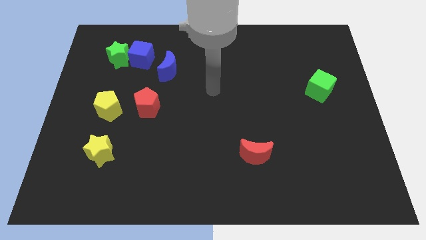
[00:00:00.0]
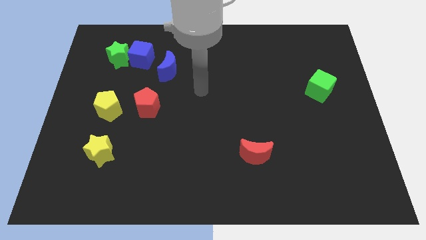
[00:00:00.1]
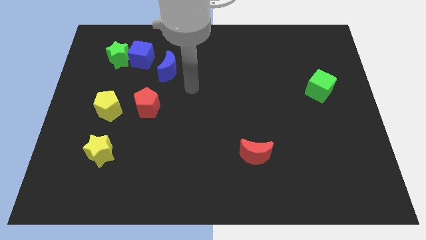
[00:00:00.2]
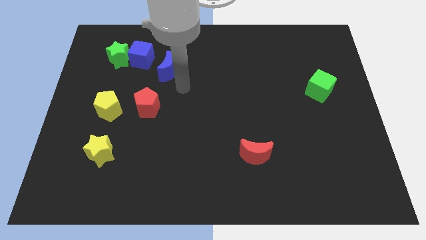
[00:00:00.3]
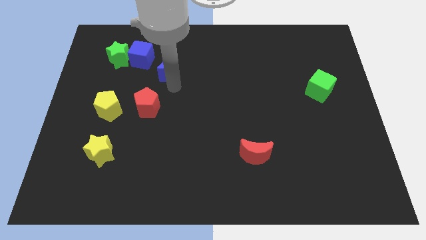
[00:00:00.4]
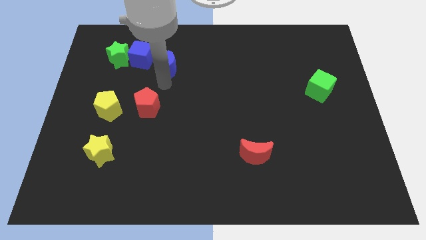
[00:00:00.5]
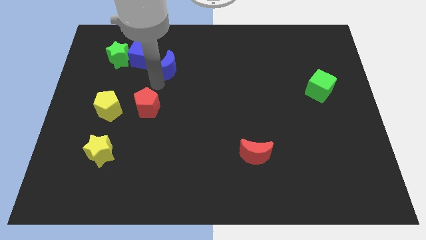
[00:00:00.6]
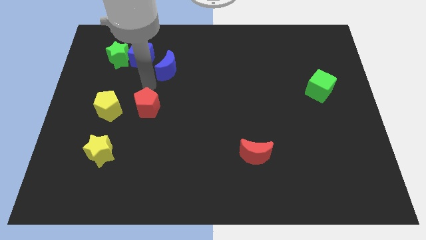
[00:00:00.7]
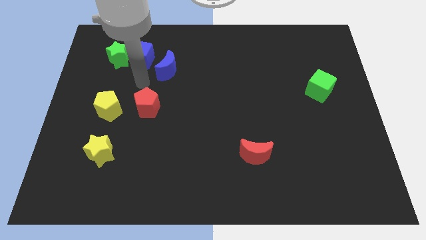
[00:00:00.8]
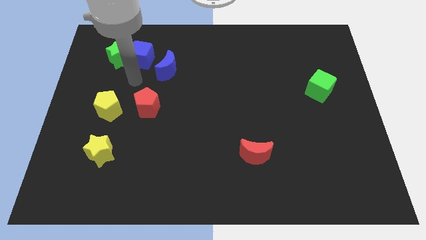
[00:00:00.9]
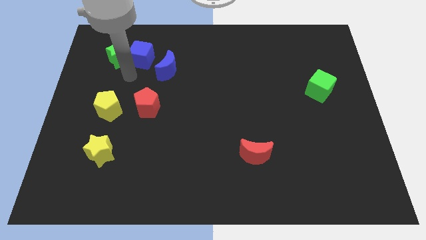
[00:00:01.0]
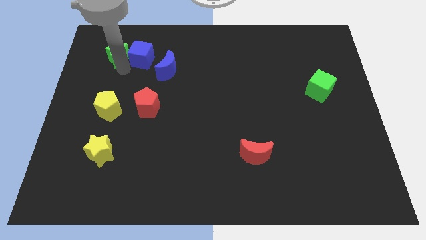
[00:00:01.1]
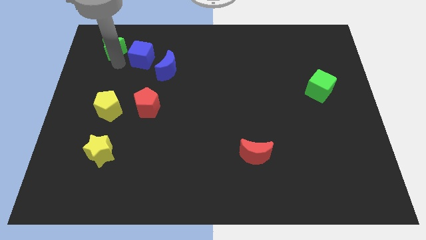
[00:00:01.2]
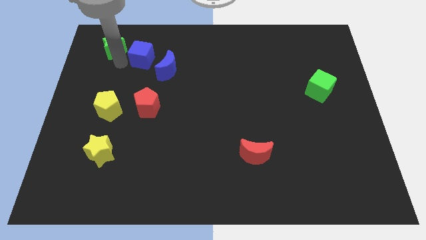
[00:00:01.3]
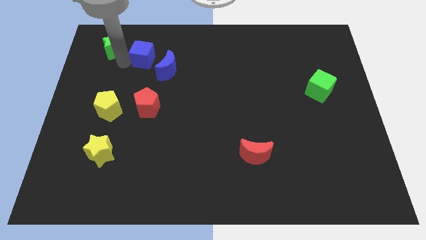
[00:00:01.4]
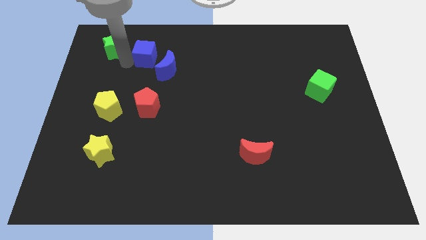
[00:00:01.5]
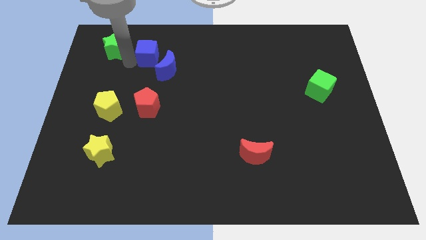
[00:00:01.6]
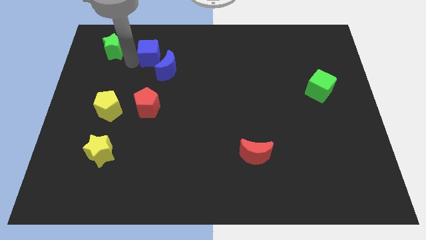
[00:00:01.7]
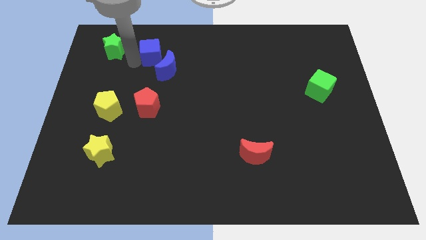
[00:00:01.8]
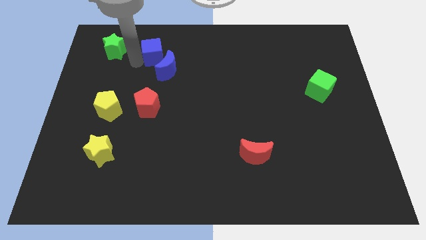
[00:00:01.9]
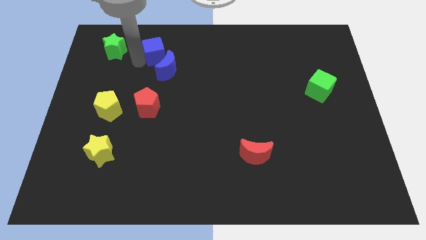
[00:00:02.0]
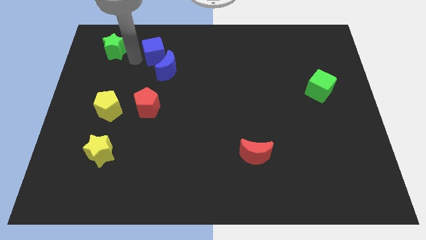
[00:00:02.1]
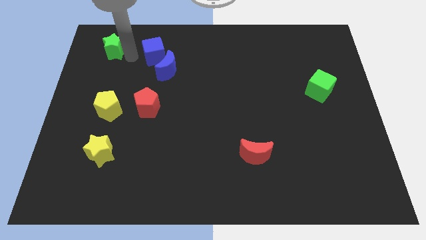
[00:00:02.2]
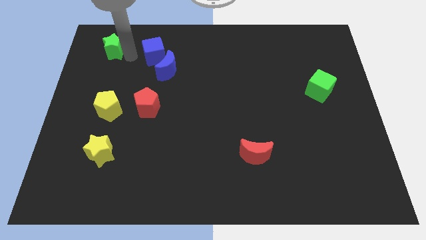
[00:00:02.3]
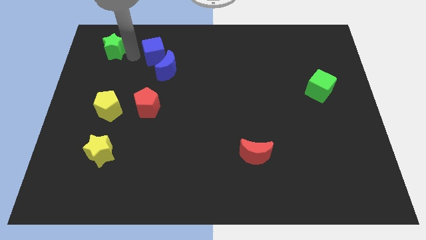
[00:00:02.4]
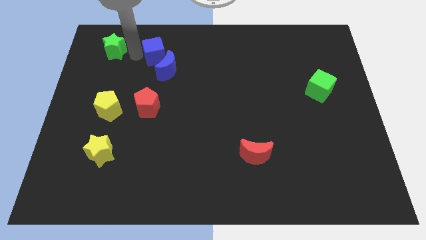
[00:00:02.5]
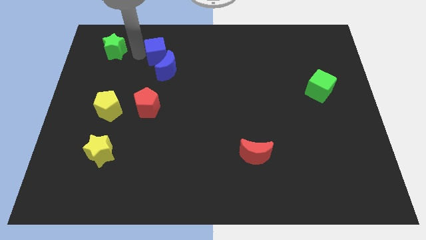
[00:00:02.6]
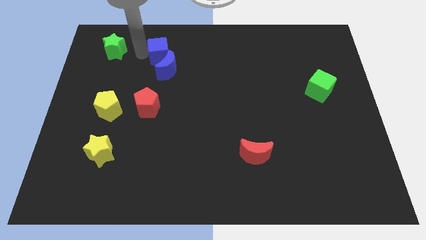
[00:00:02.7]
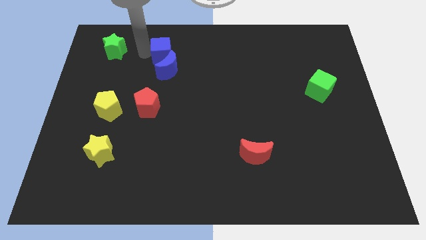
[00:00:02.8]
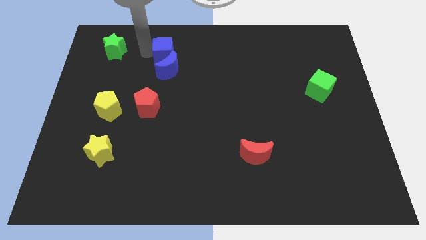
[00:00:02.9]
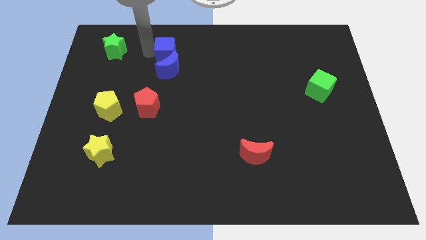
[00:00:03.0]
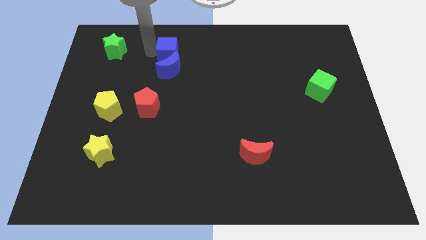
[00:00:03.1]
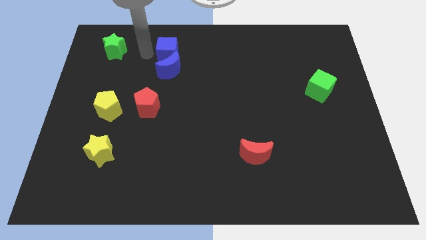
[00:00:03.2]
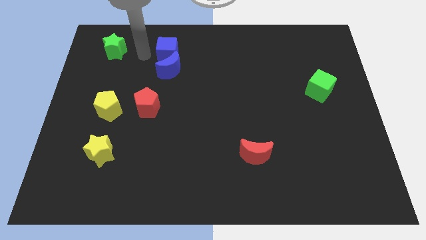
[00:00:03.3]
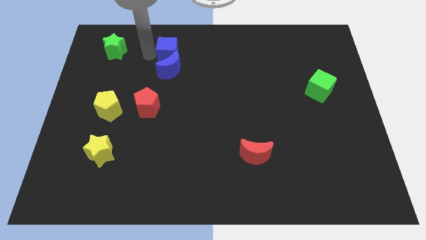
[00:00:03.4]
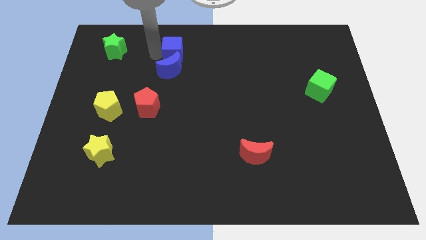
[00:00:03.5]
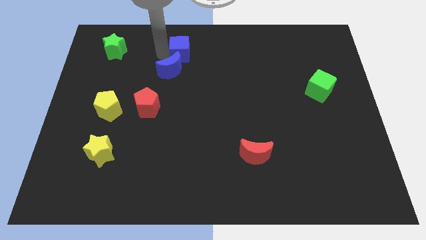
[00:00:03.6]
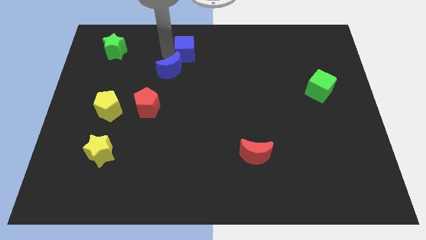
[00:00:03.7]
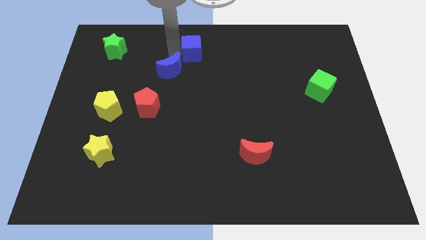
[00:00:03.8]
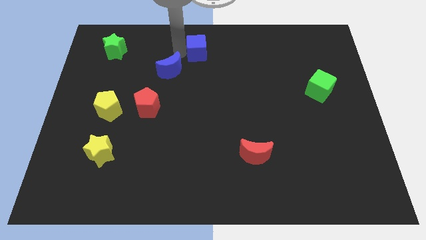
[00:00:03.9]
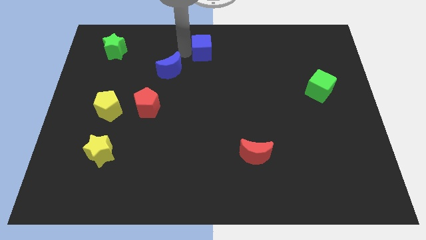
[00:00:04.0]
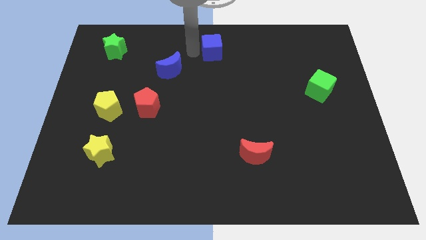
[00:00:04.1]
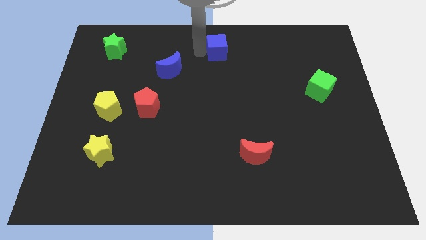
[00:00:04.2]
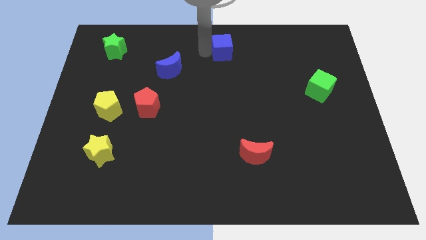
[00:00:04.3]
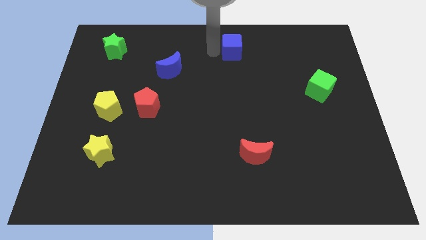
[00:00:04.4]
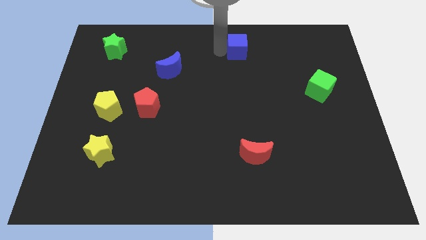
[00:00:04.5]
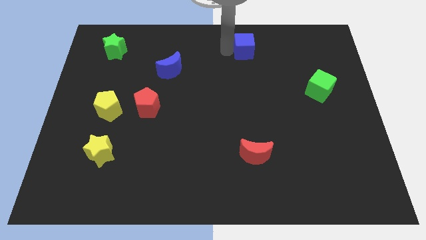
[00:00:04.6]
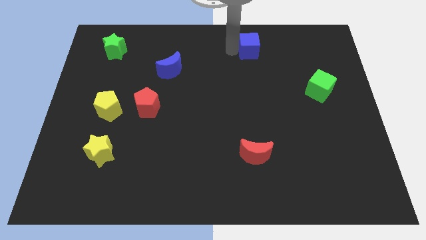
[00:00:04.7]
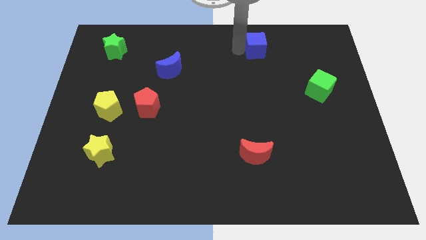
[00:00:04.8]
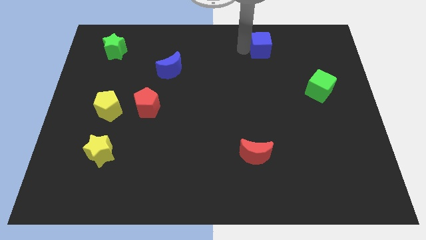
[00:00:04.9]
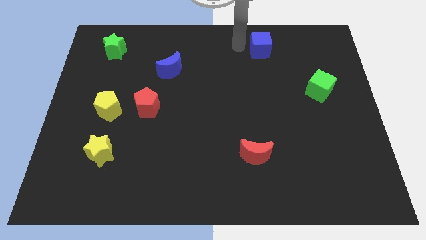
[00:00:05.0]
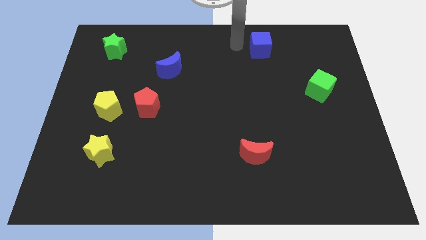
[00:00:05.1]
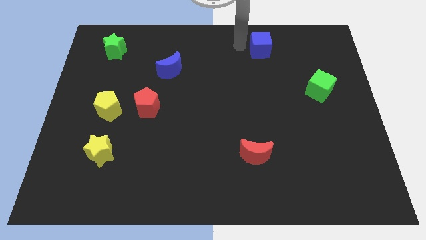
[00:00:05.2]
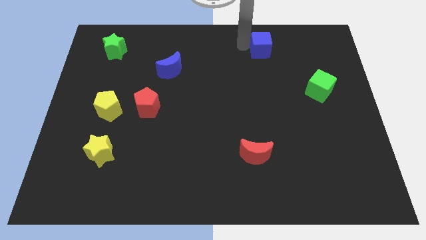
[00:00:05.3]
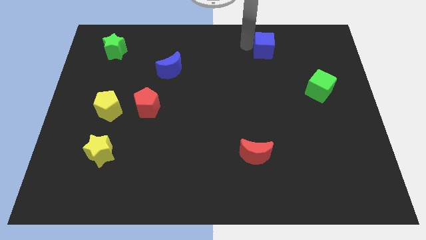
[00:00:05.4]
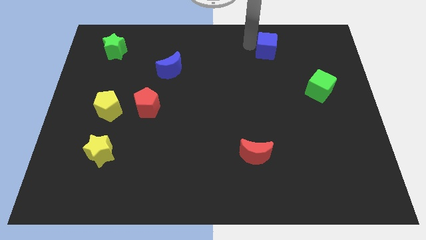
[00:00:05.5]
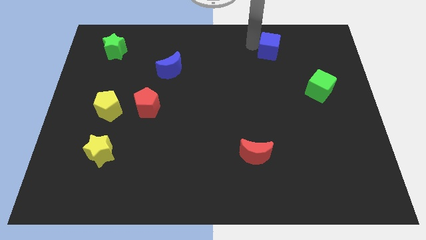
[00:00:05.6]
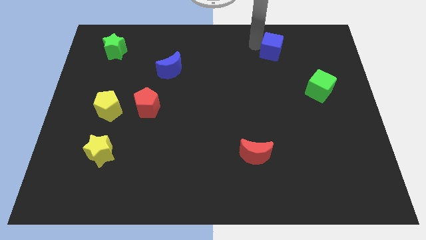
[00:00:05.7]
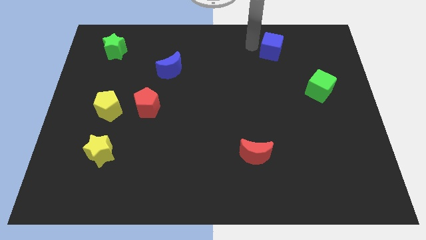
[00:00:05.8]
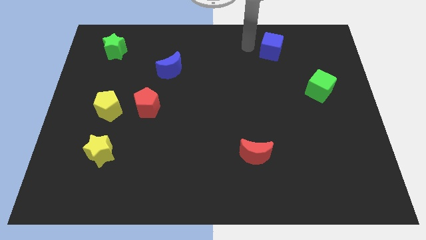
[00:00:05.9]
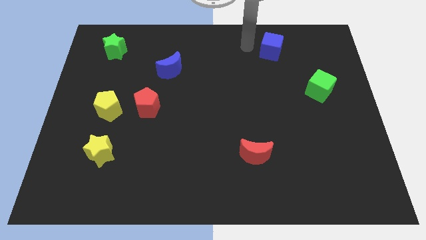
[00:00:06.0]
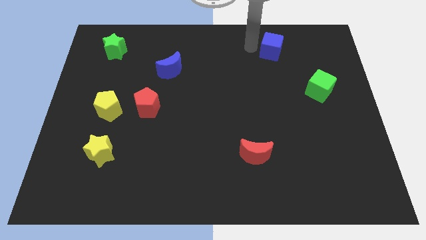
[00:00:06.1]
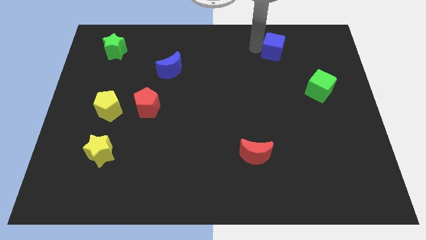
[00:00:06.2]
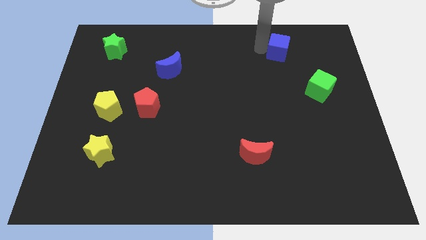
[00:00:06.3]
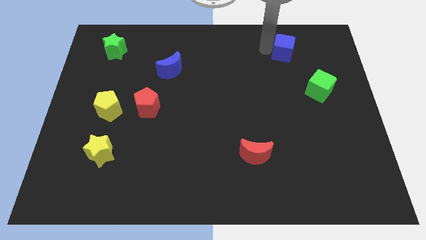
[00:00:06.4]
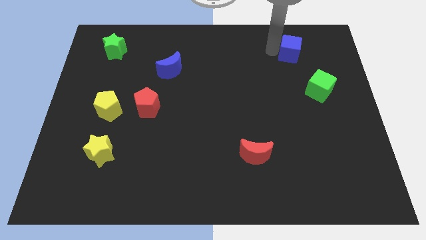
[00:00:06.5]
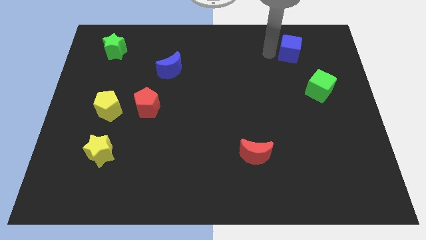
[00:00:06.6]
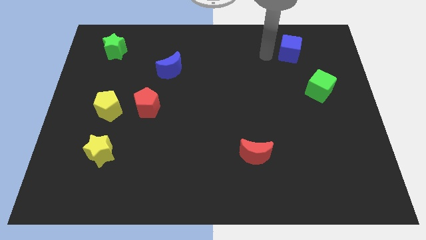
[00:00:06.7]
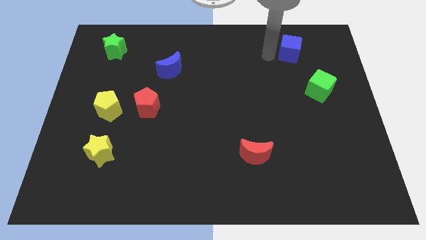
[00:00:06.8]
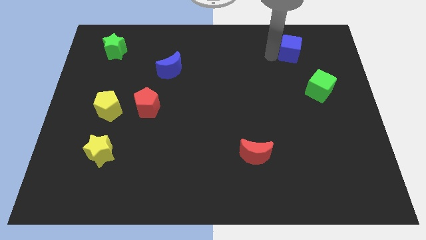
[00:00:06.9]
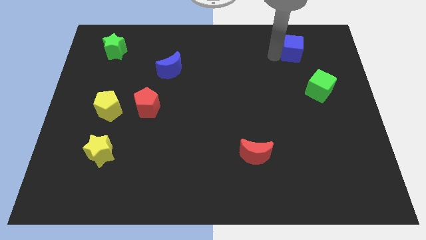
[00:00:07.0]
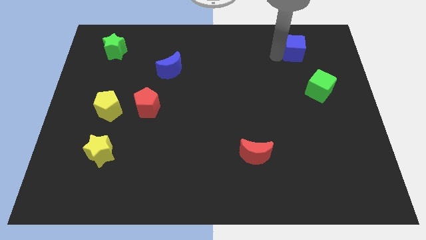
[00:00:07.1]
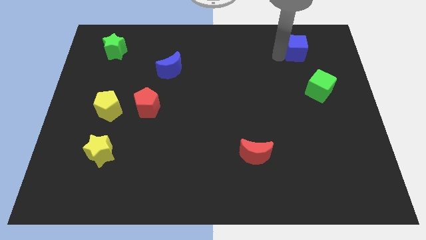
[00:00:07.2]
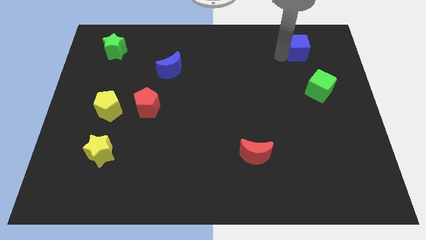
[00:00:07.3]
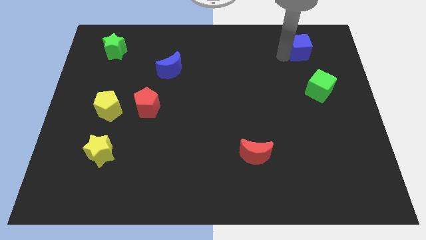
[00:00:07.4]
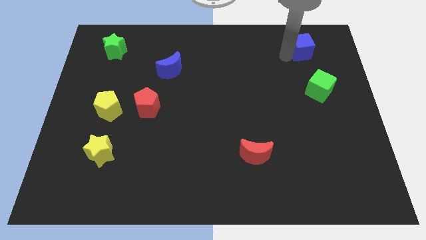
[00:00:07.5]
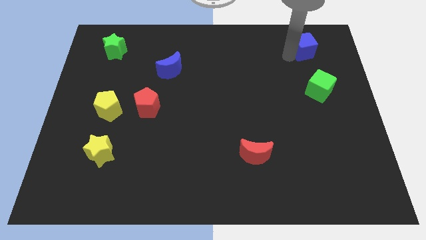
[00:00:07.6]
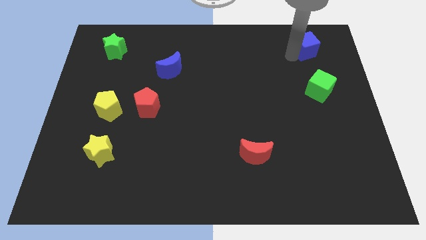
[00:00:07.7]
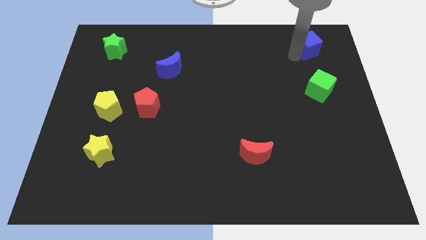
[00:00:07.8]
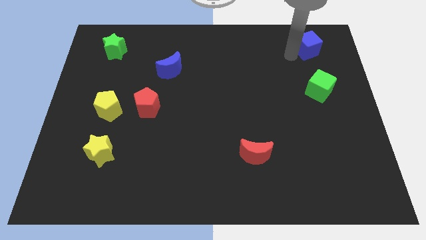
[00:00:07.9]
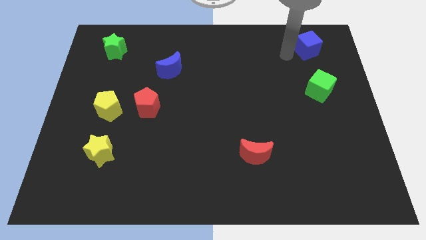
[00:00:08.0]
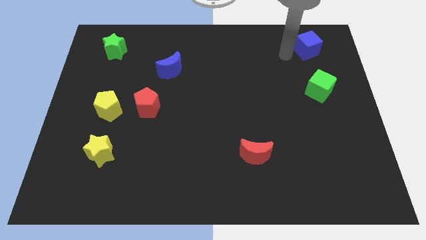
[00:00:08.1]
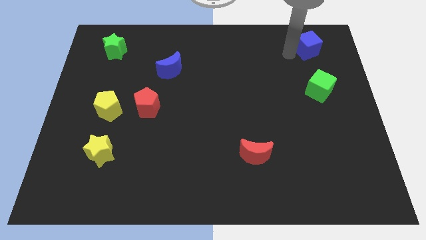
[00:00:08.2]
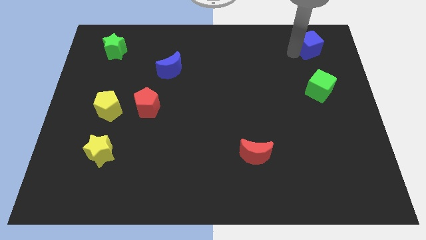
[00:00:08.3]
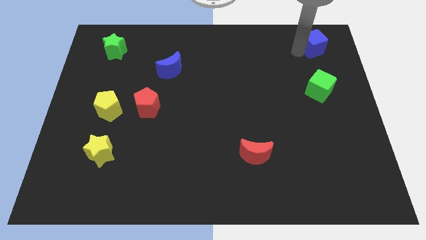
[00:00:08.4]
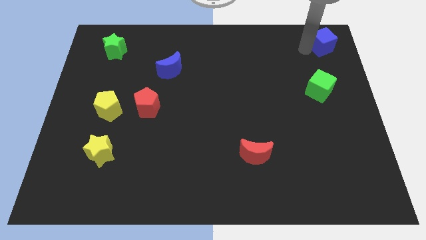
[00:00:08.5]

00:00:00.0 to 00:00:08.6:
put the blue cube to the top right
